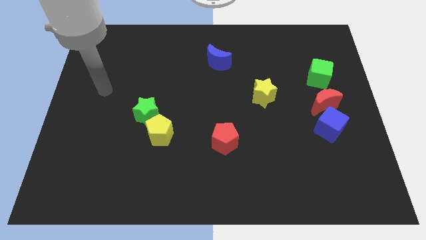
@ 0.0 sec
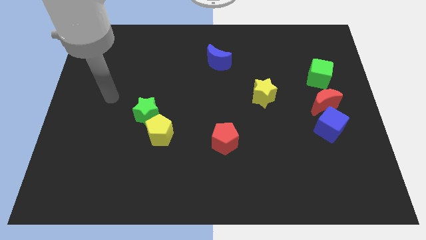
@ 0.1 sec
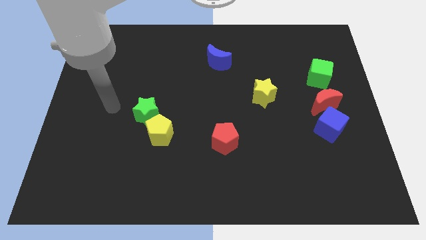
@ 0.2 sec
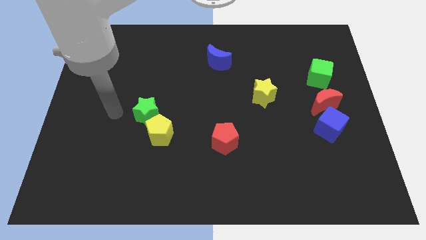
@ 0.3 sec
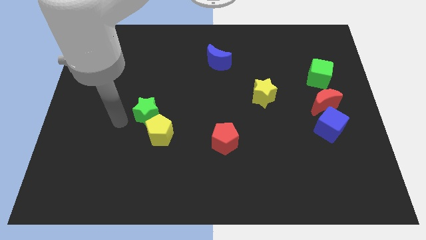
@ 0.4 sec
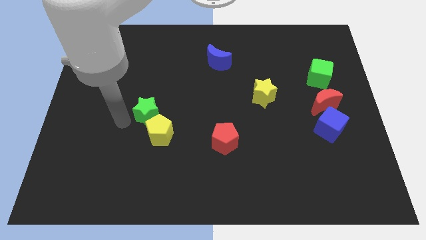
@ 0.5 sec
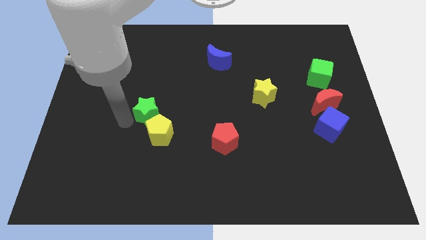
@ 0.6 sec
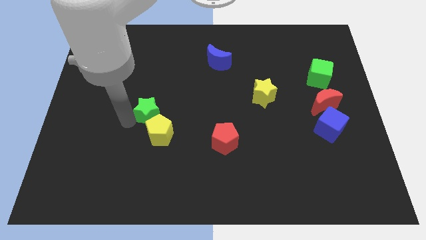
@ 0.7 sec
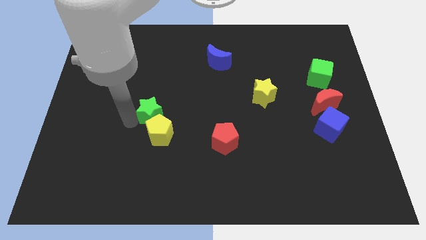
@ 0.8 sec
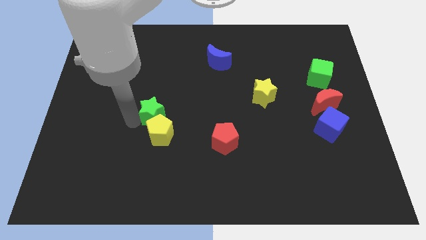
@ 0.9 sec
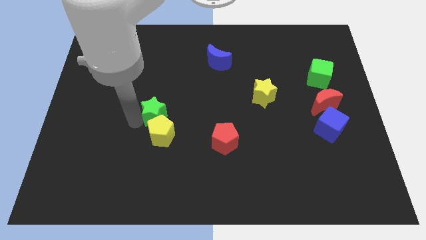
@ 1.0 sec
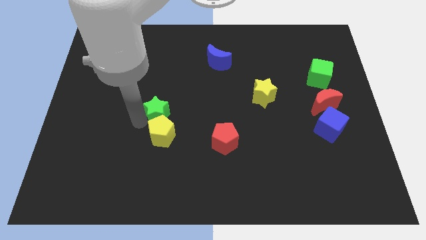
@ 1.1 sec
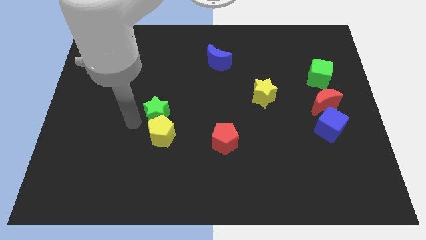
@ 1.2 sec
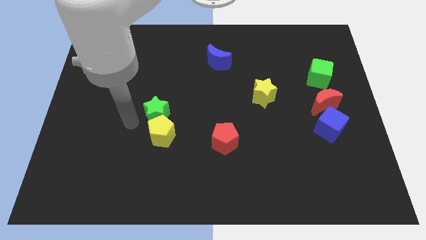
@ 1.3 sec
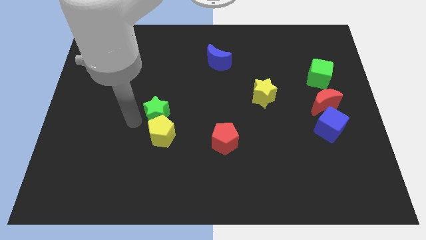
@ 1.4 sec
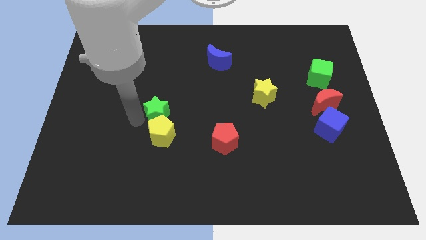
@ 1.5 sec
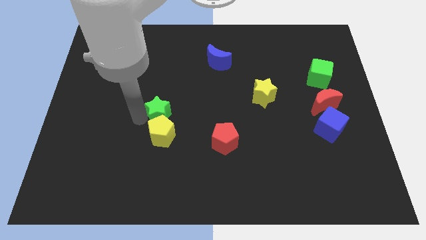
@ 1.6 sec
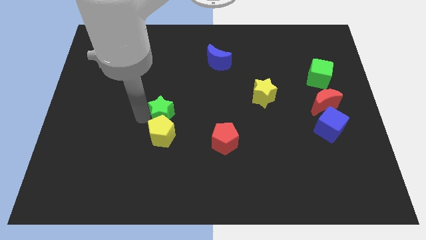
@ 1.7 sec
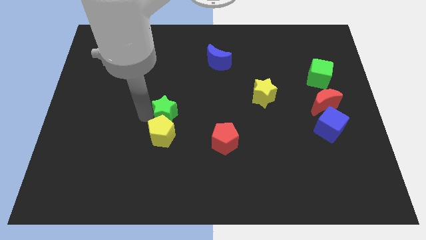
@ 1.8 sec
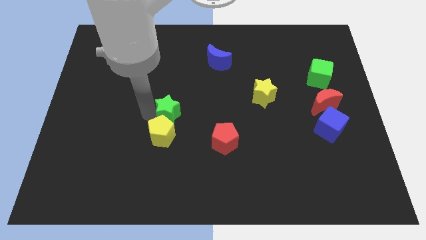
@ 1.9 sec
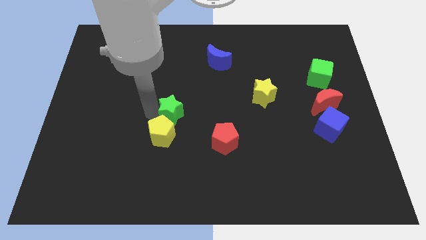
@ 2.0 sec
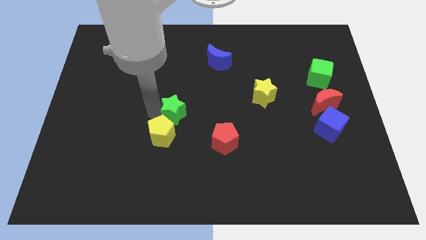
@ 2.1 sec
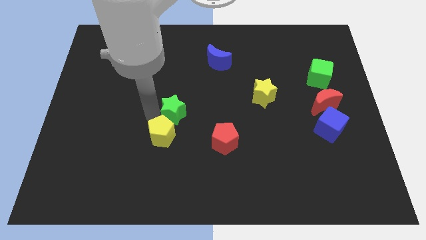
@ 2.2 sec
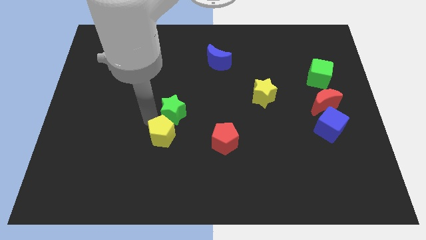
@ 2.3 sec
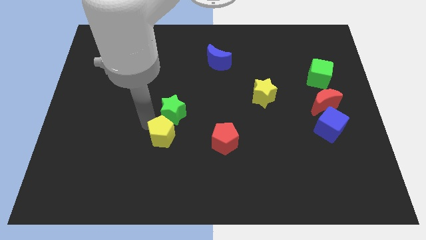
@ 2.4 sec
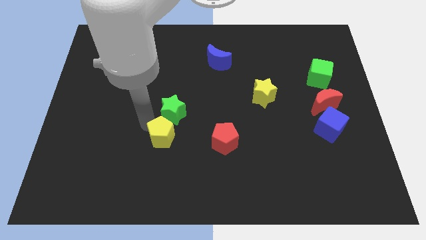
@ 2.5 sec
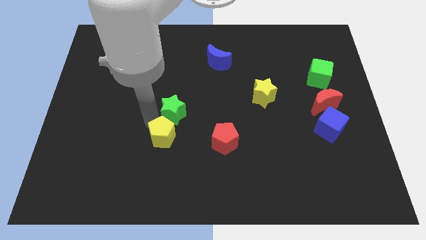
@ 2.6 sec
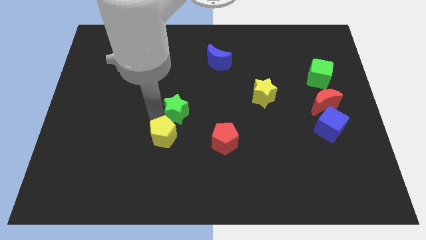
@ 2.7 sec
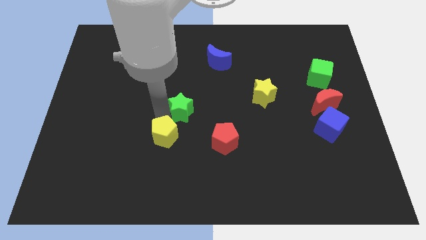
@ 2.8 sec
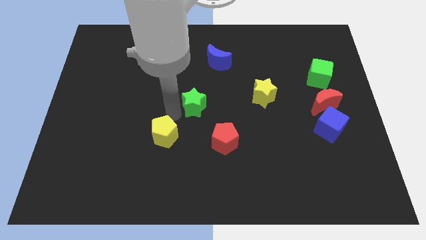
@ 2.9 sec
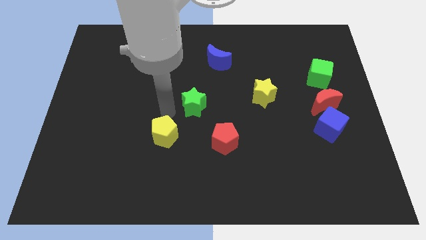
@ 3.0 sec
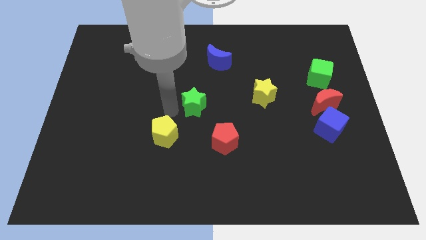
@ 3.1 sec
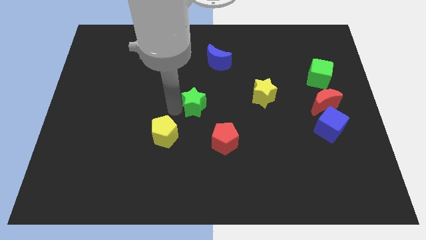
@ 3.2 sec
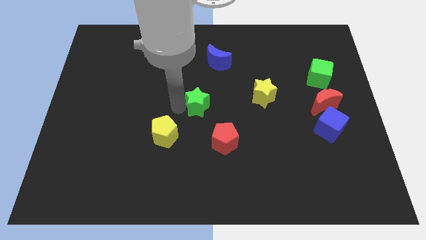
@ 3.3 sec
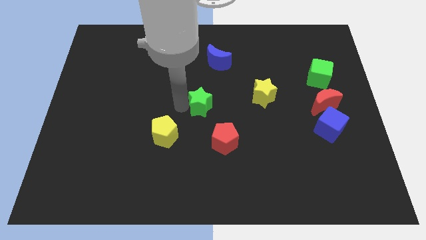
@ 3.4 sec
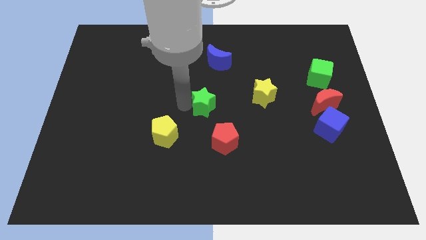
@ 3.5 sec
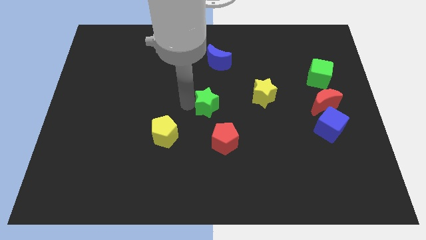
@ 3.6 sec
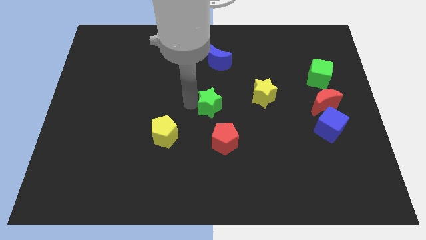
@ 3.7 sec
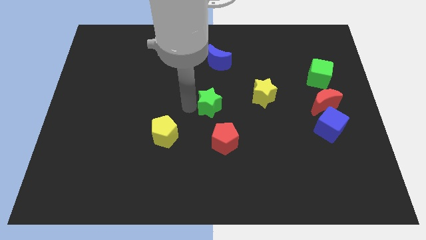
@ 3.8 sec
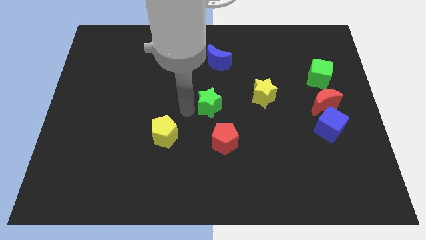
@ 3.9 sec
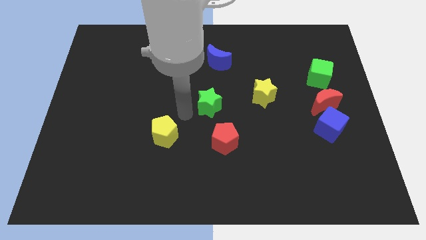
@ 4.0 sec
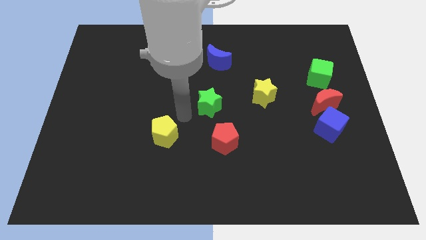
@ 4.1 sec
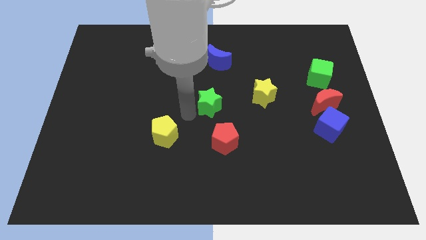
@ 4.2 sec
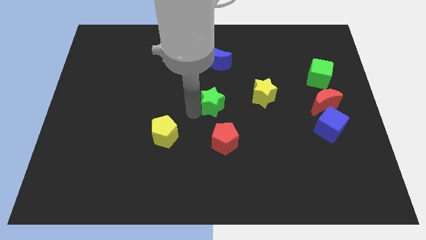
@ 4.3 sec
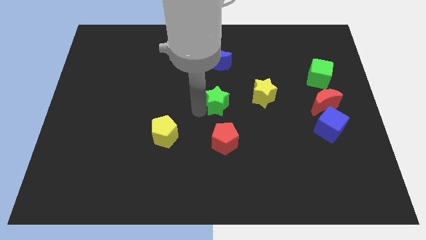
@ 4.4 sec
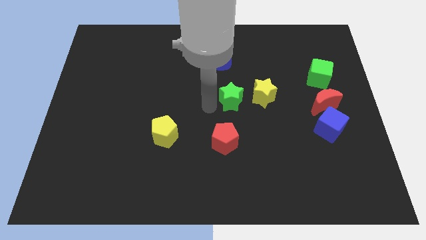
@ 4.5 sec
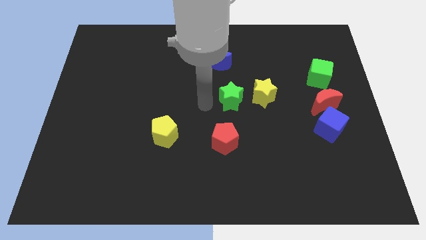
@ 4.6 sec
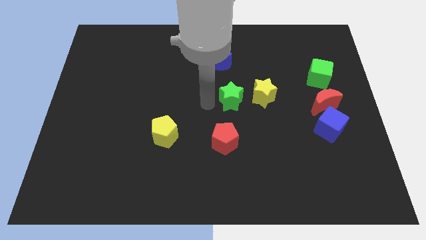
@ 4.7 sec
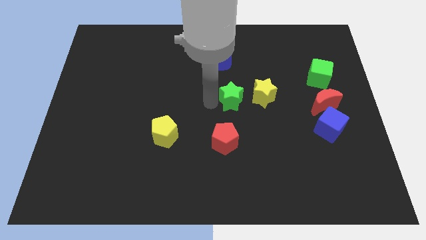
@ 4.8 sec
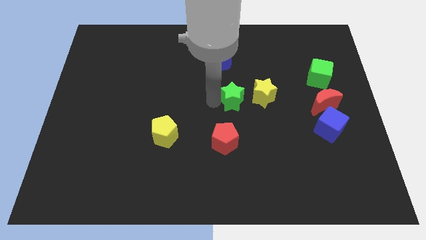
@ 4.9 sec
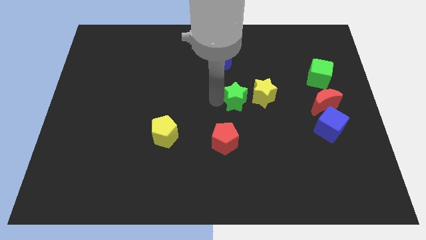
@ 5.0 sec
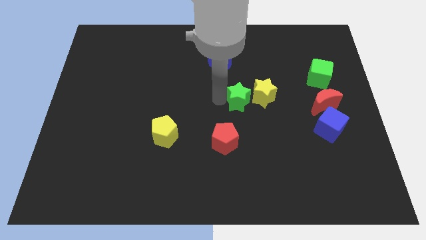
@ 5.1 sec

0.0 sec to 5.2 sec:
slide the green star close to the yellow star

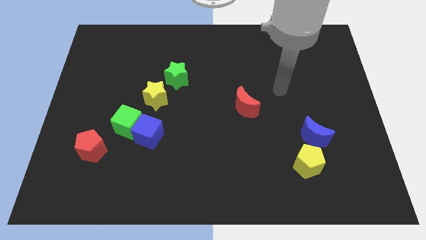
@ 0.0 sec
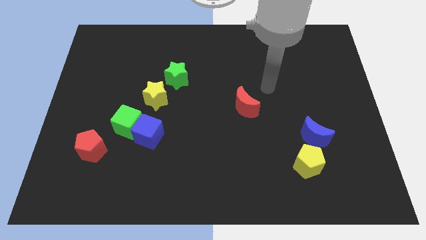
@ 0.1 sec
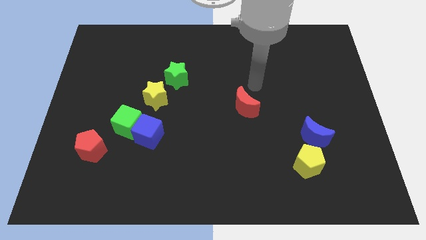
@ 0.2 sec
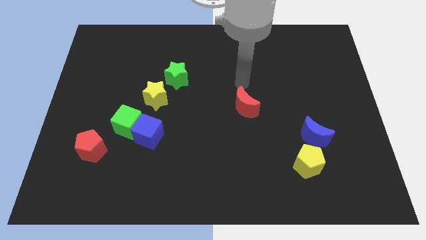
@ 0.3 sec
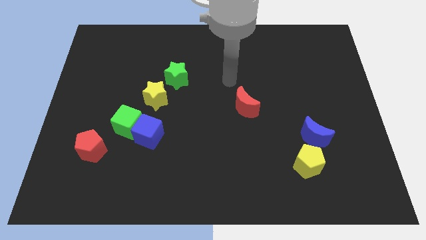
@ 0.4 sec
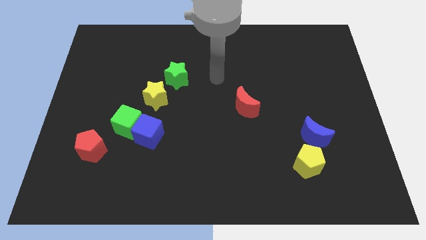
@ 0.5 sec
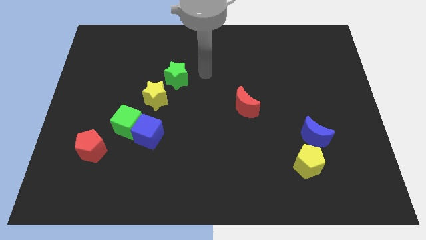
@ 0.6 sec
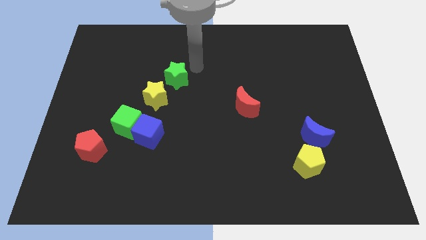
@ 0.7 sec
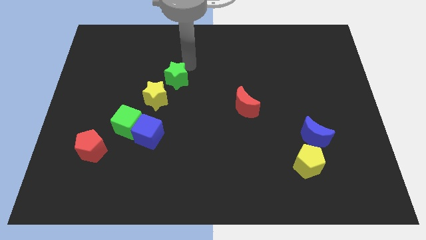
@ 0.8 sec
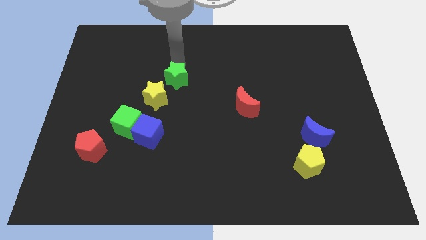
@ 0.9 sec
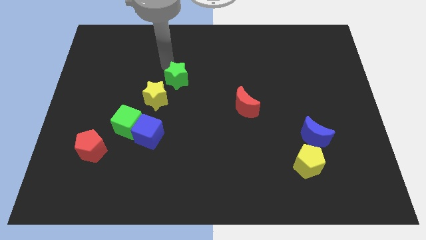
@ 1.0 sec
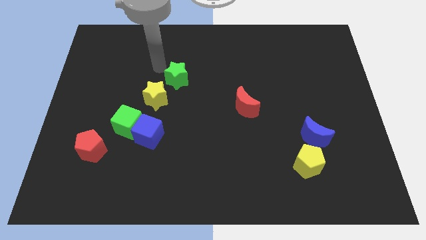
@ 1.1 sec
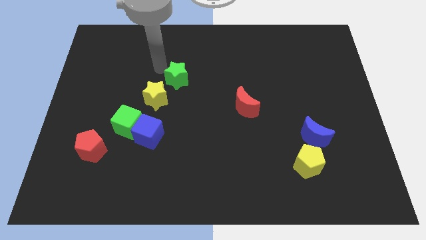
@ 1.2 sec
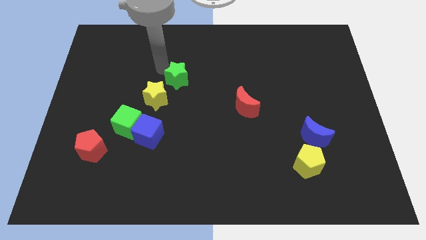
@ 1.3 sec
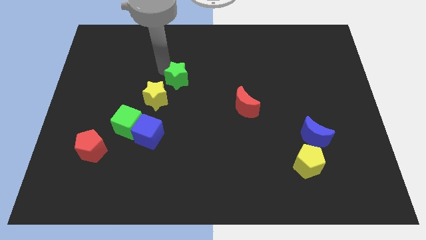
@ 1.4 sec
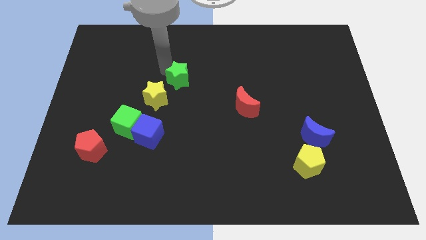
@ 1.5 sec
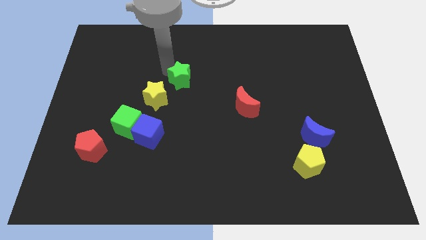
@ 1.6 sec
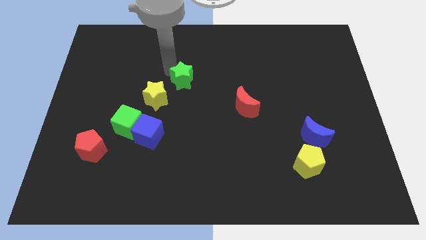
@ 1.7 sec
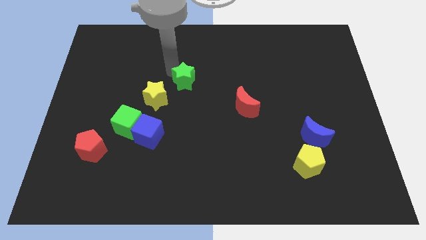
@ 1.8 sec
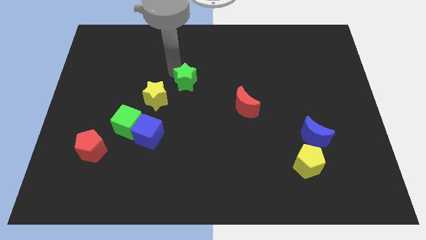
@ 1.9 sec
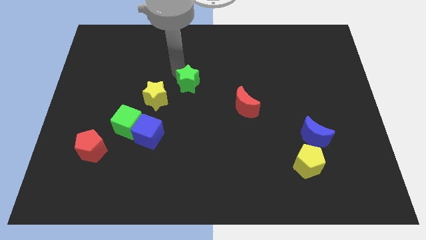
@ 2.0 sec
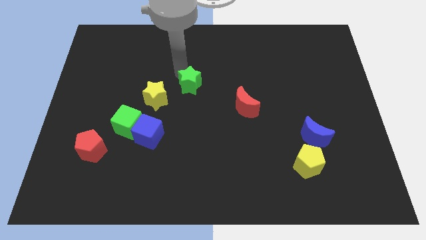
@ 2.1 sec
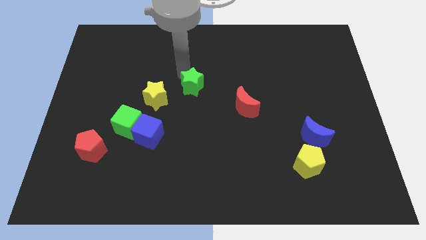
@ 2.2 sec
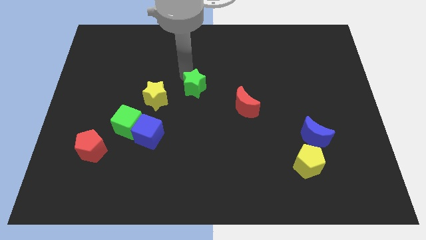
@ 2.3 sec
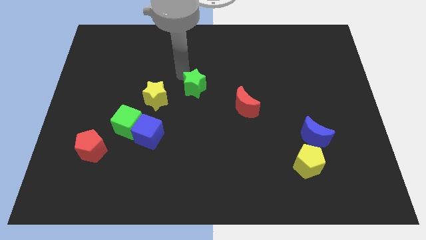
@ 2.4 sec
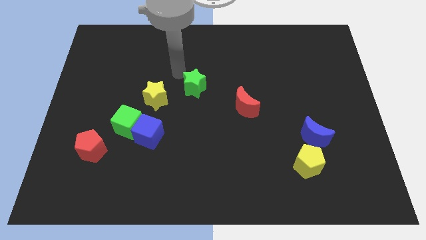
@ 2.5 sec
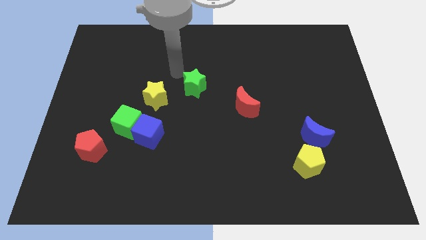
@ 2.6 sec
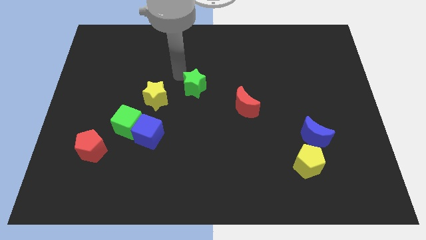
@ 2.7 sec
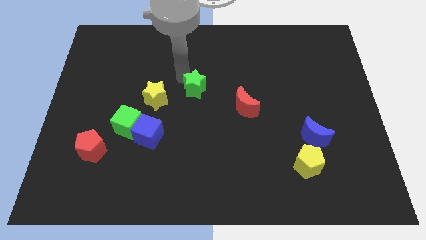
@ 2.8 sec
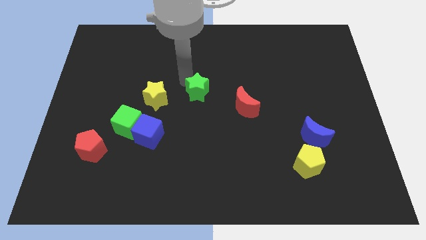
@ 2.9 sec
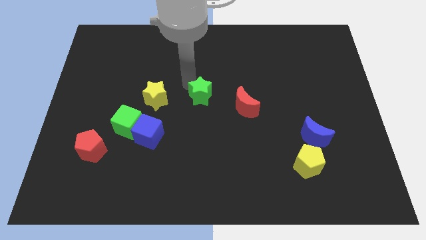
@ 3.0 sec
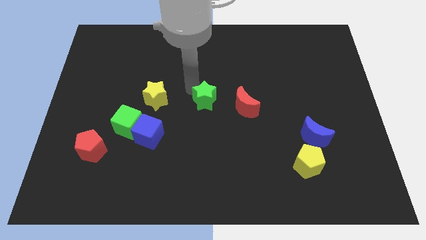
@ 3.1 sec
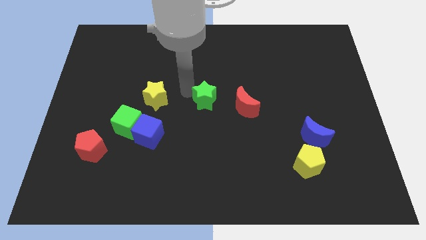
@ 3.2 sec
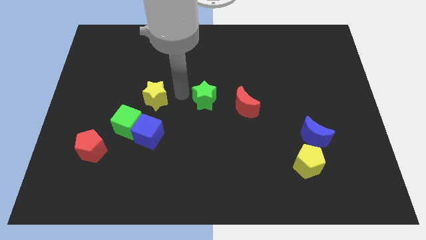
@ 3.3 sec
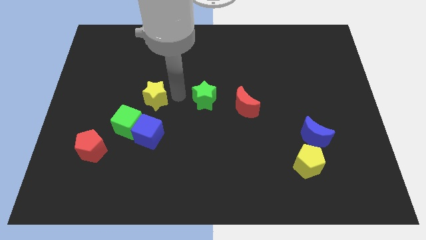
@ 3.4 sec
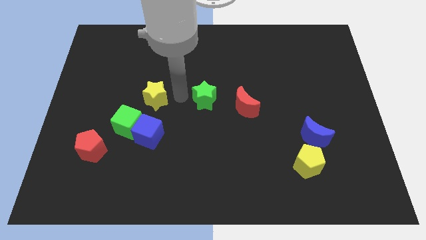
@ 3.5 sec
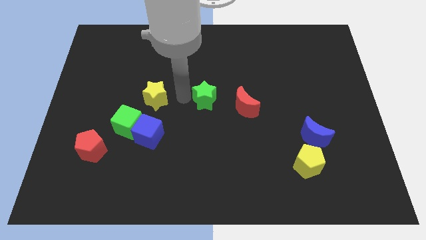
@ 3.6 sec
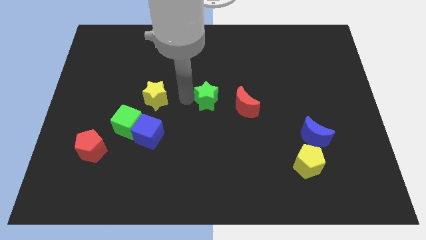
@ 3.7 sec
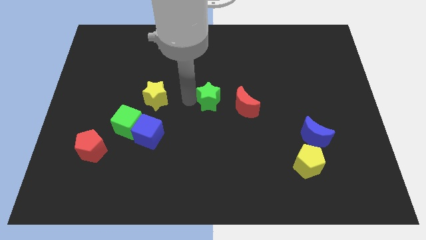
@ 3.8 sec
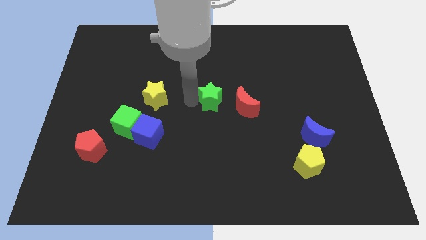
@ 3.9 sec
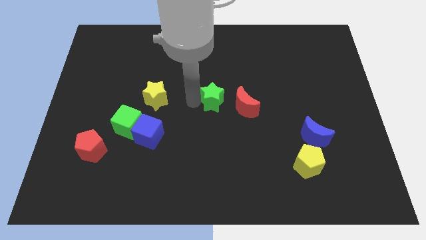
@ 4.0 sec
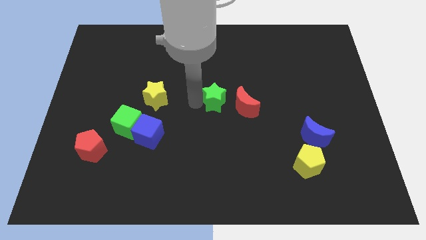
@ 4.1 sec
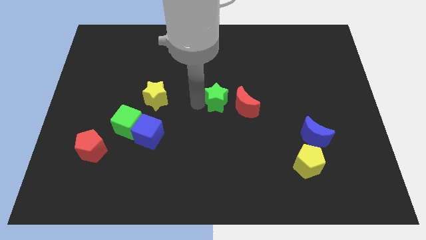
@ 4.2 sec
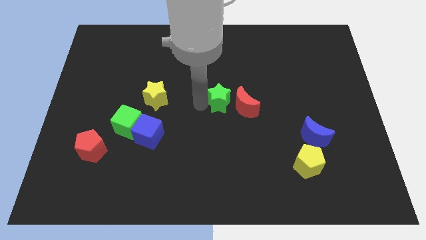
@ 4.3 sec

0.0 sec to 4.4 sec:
move the green star towards the red moon
